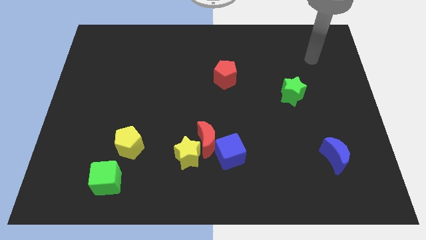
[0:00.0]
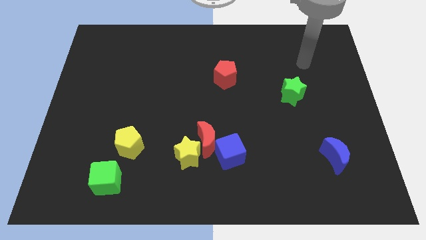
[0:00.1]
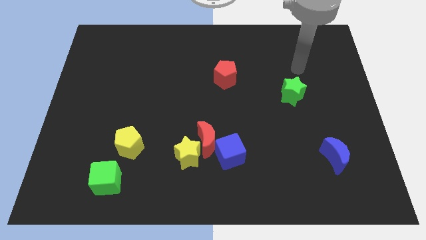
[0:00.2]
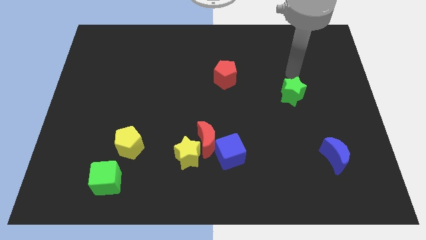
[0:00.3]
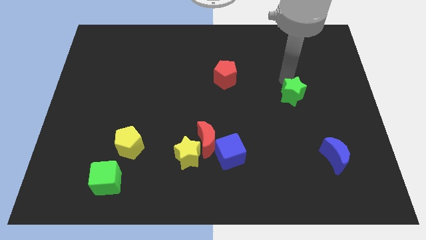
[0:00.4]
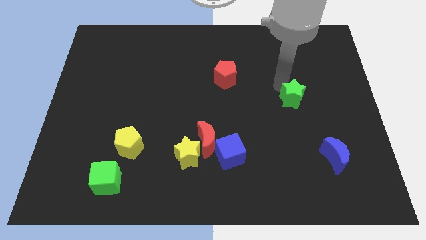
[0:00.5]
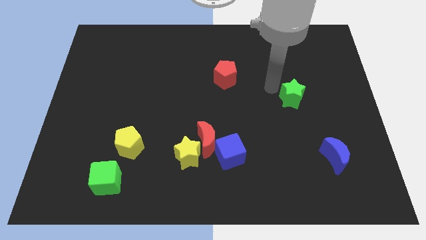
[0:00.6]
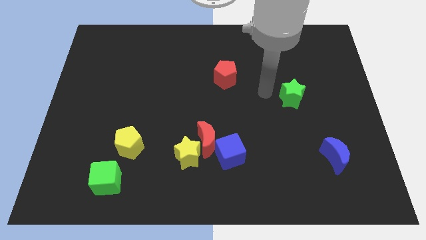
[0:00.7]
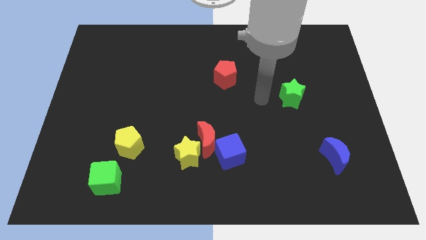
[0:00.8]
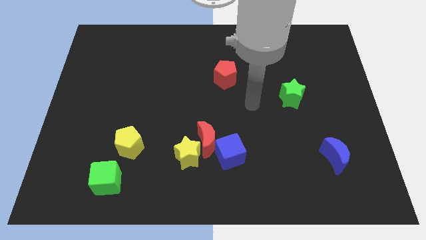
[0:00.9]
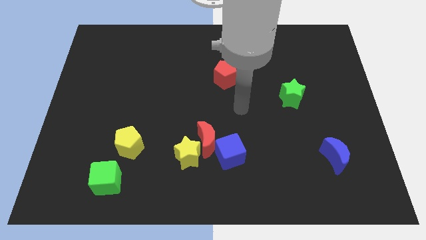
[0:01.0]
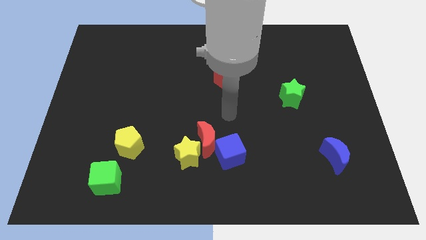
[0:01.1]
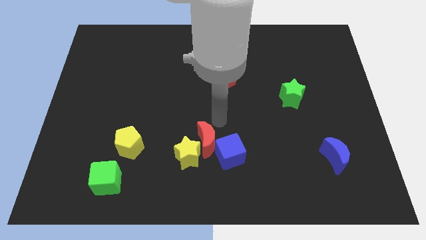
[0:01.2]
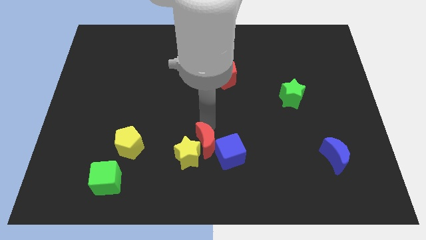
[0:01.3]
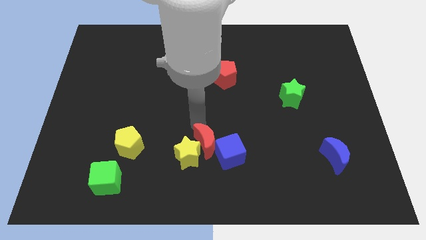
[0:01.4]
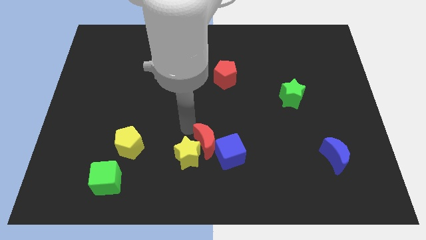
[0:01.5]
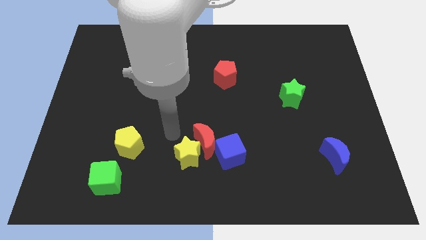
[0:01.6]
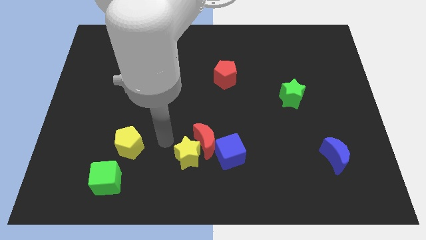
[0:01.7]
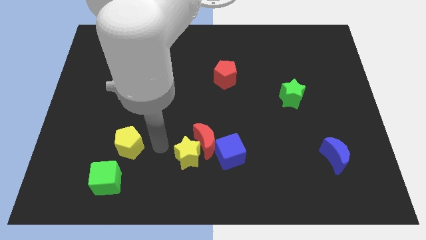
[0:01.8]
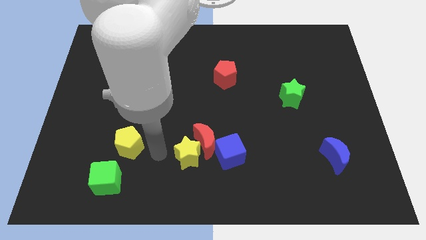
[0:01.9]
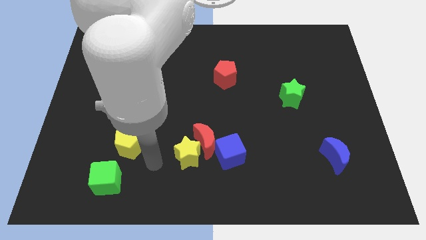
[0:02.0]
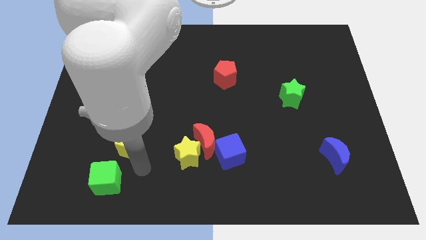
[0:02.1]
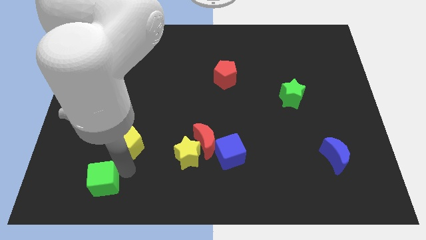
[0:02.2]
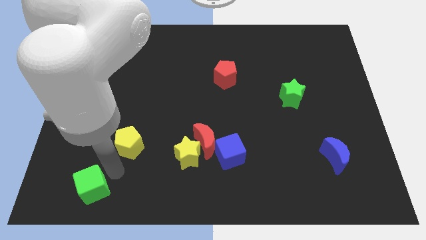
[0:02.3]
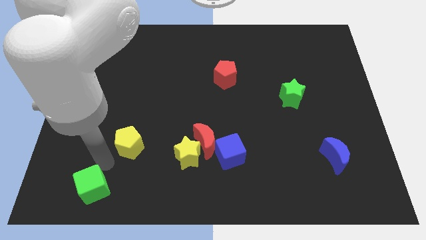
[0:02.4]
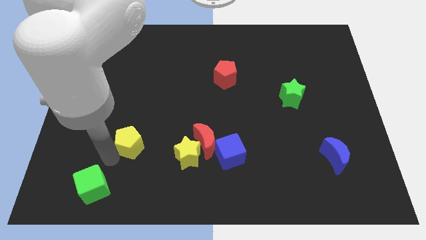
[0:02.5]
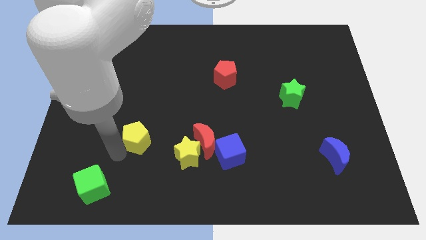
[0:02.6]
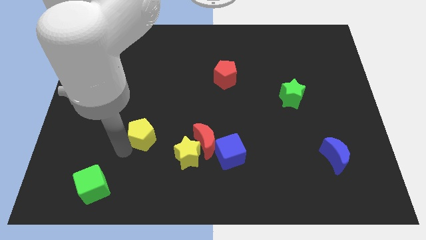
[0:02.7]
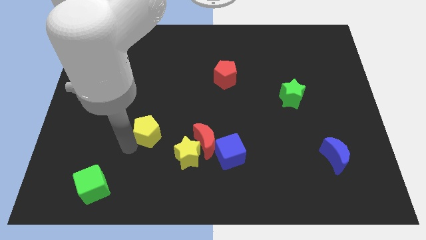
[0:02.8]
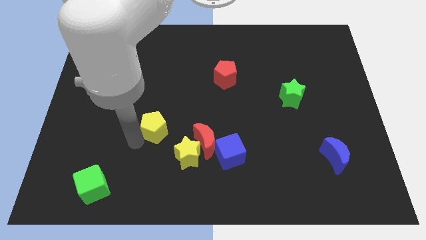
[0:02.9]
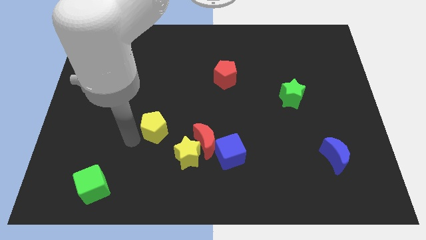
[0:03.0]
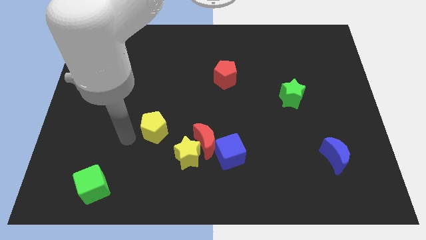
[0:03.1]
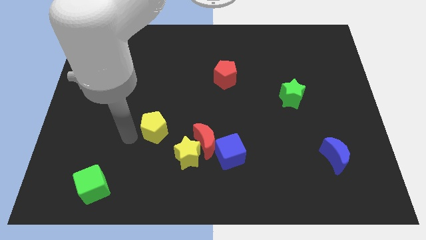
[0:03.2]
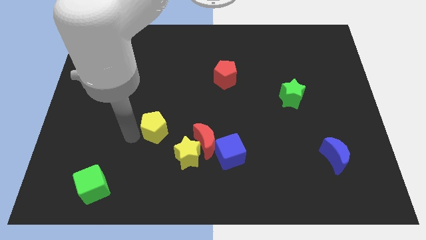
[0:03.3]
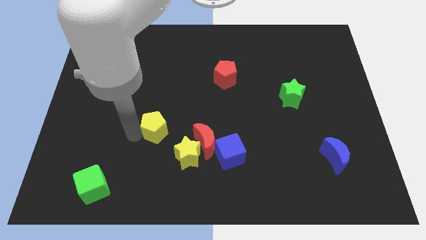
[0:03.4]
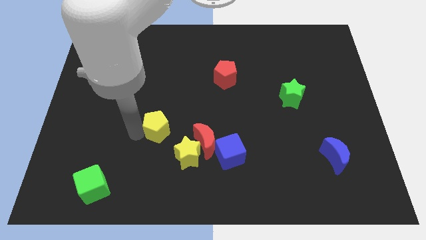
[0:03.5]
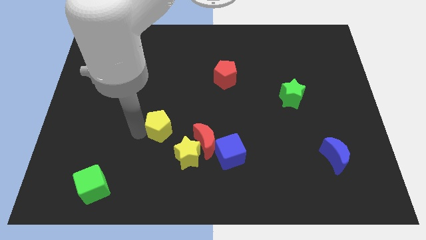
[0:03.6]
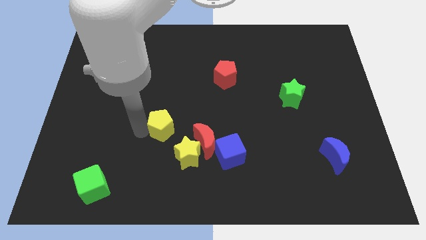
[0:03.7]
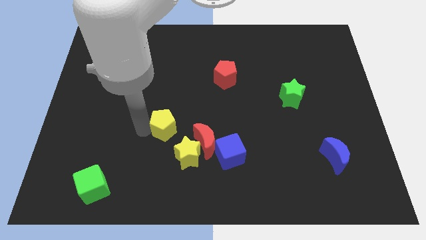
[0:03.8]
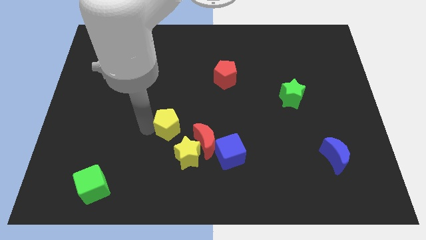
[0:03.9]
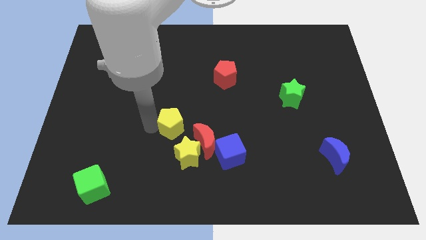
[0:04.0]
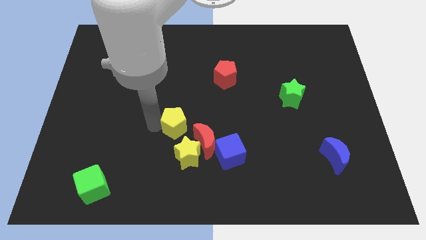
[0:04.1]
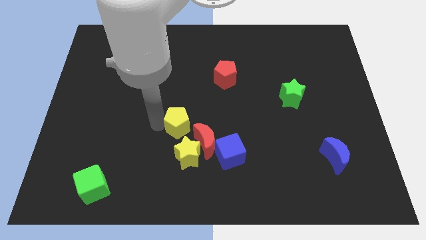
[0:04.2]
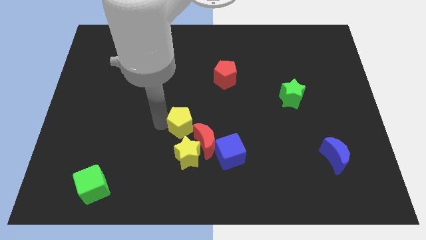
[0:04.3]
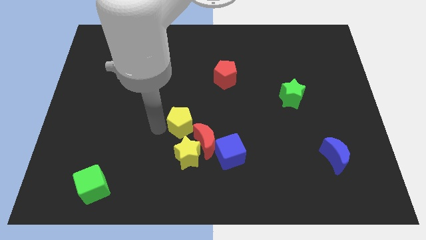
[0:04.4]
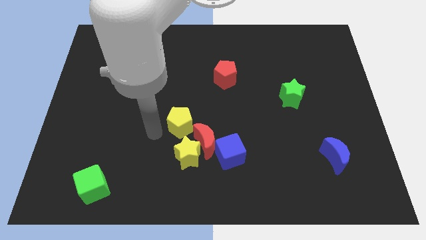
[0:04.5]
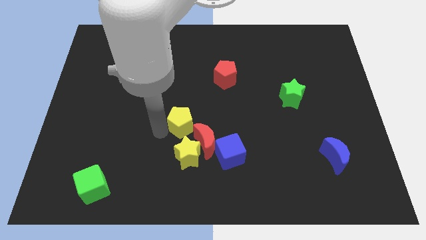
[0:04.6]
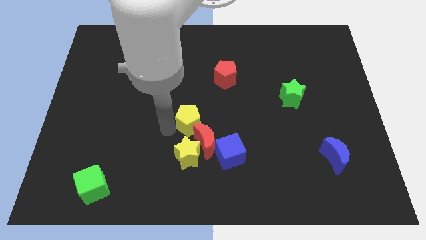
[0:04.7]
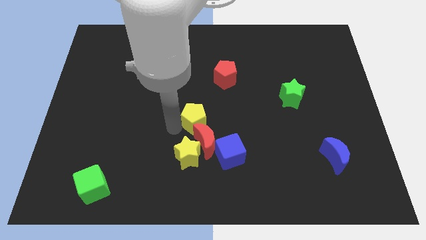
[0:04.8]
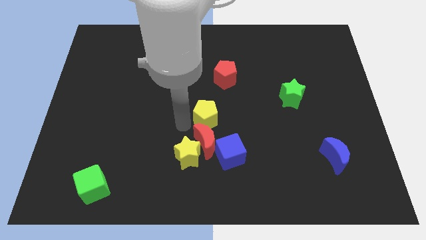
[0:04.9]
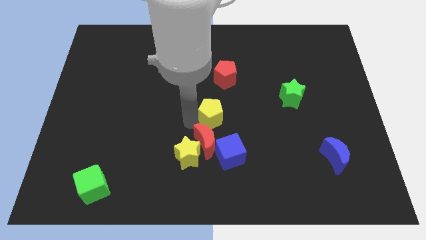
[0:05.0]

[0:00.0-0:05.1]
push the yellow pentagon to the top side of the blue cube

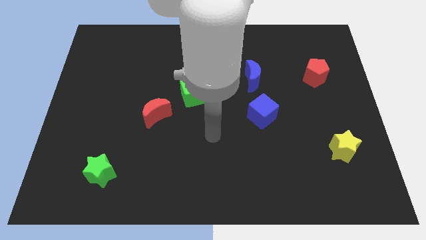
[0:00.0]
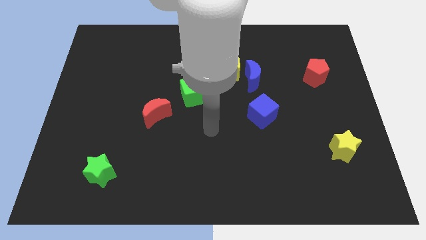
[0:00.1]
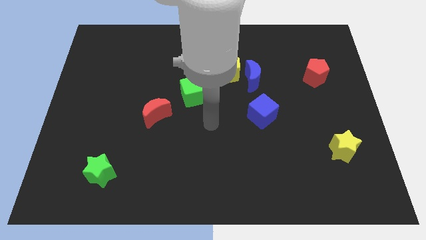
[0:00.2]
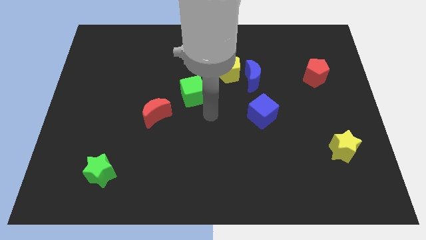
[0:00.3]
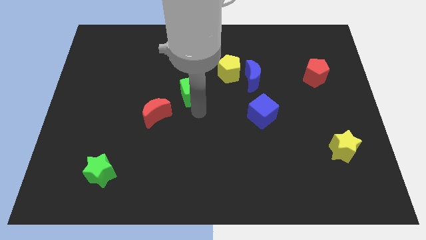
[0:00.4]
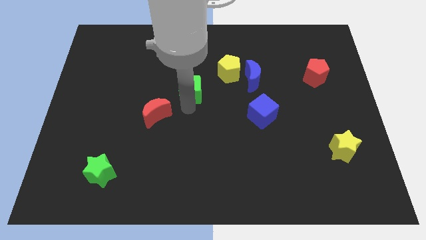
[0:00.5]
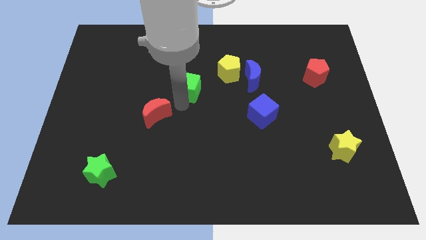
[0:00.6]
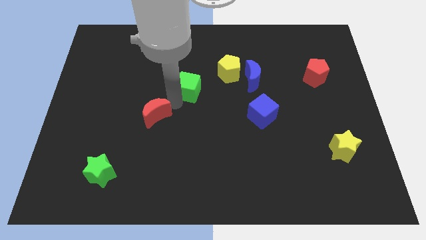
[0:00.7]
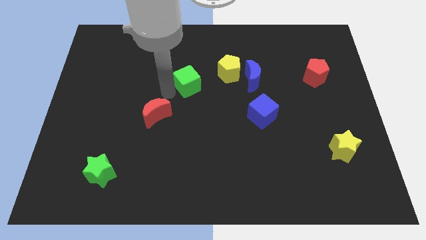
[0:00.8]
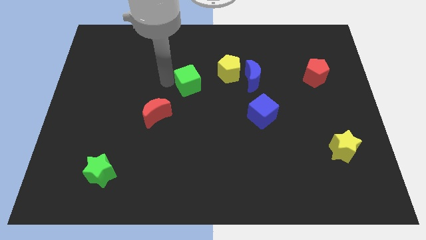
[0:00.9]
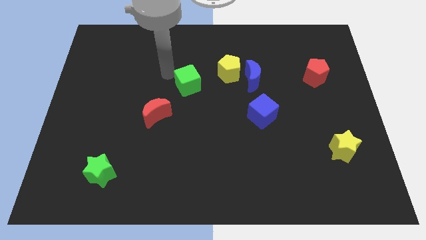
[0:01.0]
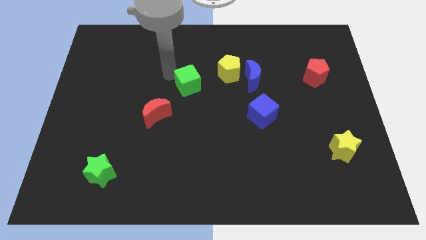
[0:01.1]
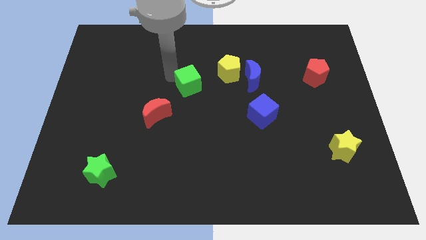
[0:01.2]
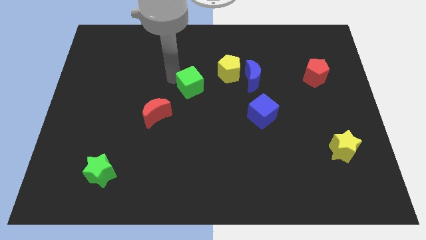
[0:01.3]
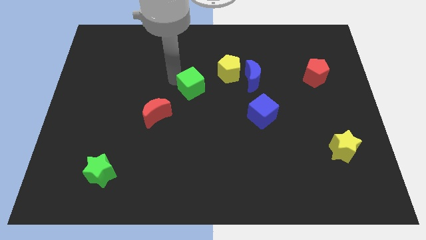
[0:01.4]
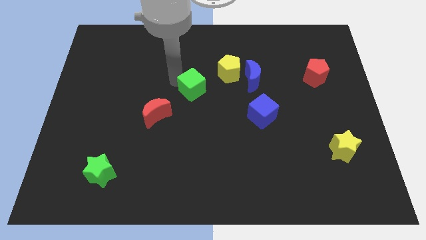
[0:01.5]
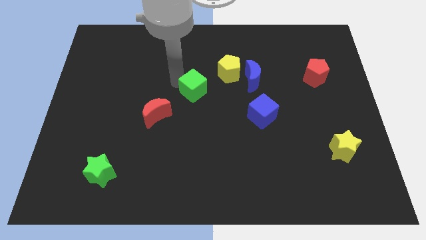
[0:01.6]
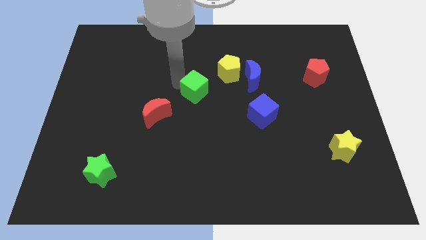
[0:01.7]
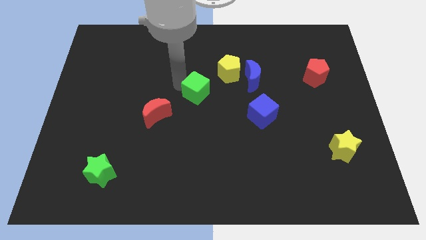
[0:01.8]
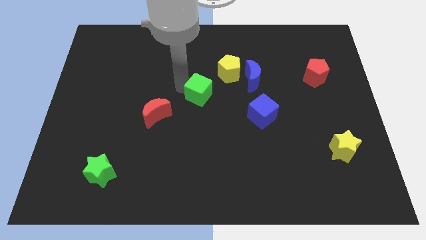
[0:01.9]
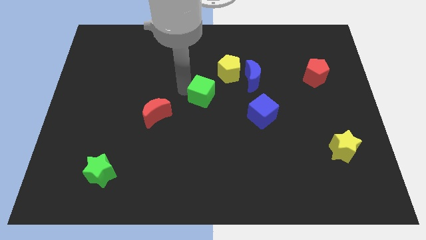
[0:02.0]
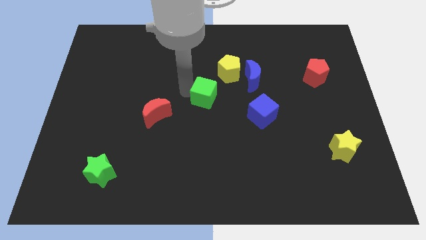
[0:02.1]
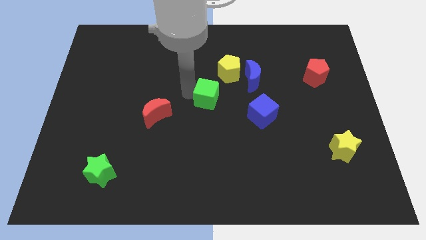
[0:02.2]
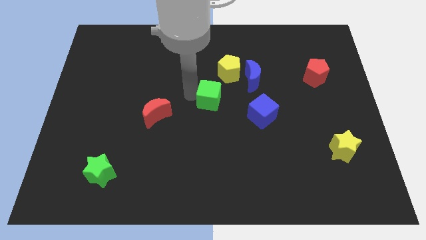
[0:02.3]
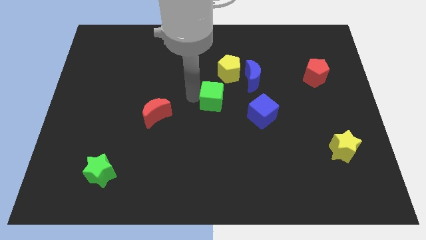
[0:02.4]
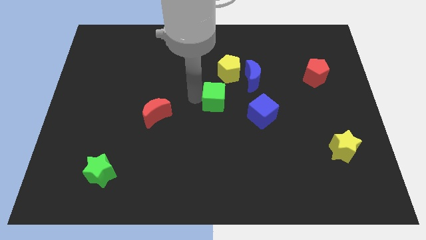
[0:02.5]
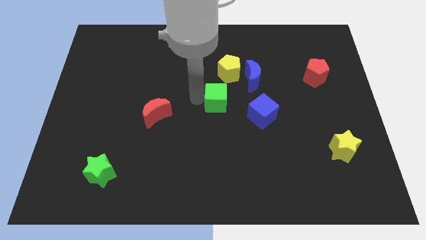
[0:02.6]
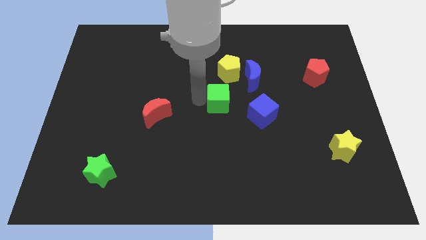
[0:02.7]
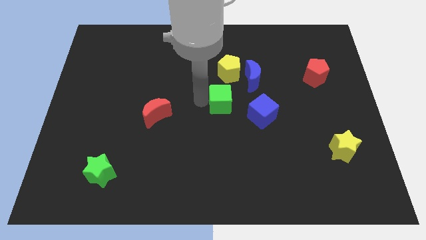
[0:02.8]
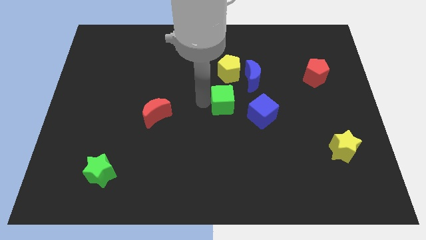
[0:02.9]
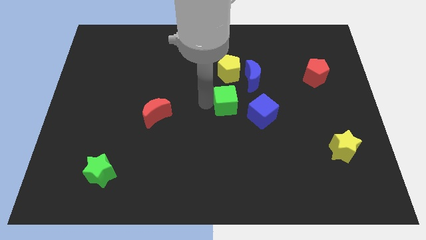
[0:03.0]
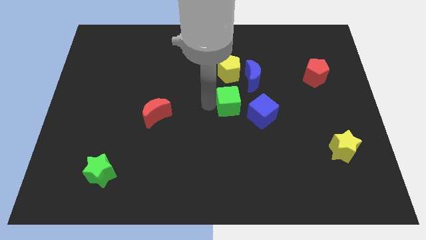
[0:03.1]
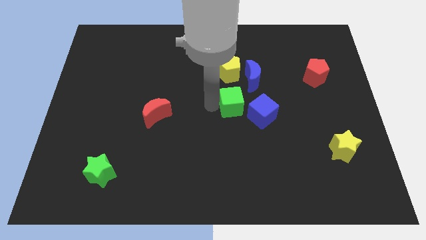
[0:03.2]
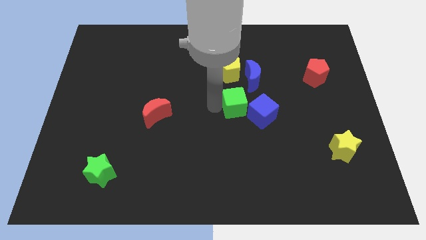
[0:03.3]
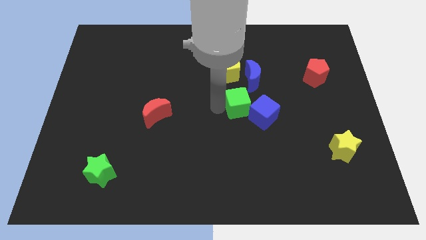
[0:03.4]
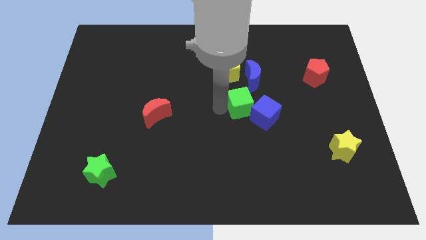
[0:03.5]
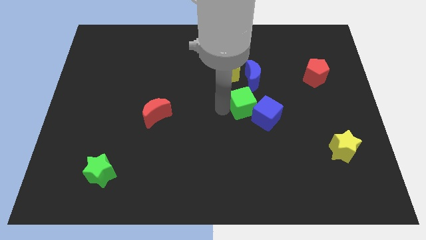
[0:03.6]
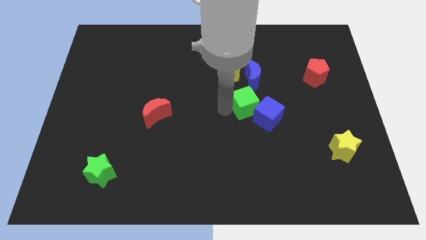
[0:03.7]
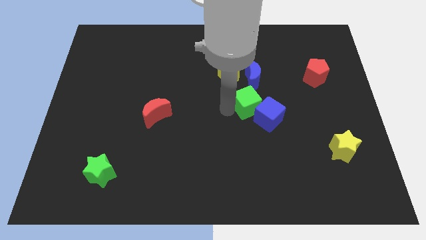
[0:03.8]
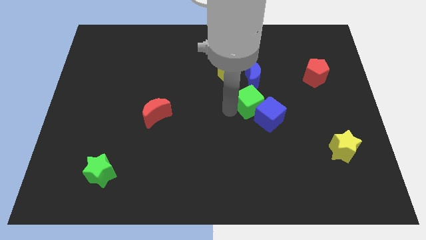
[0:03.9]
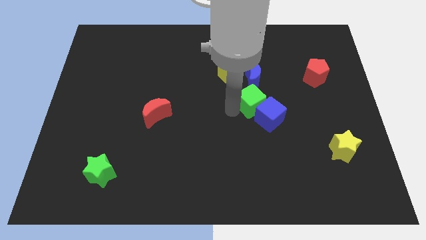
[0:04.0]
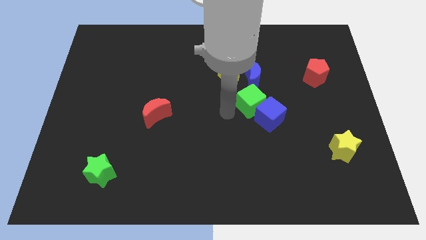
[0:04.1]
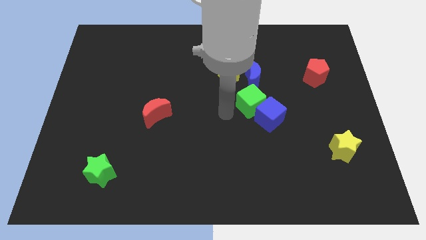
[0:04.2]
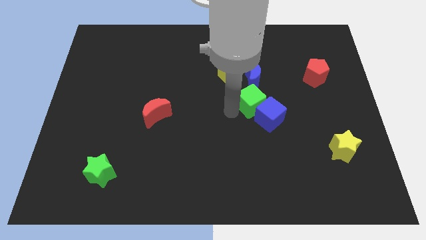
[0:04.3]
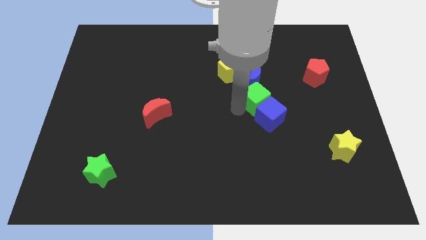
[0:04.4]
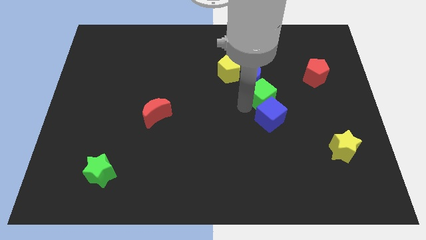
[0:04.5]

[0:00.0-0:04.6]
move the green cube to the bottom right side of the blue moon
